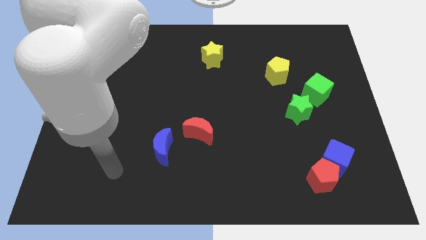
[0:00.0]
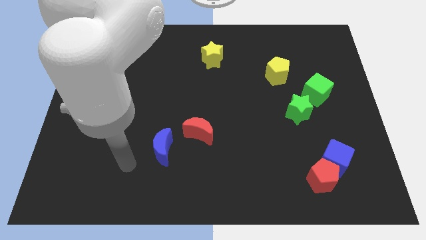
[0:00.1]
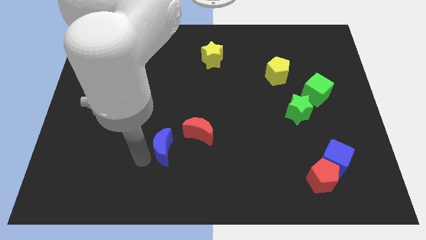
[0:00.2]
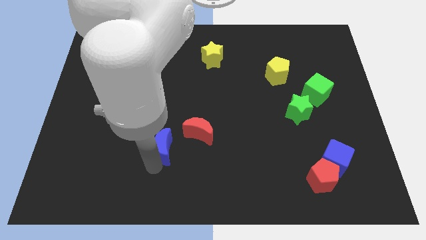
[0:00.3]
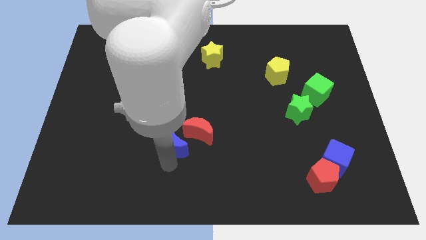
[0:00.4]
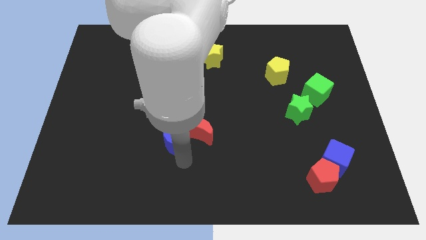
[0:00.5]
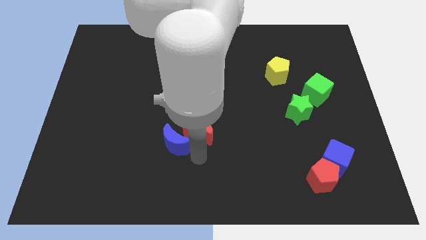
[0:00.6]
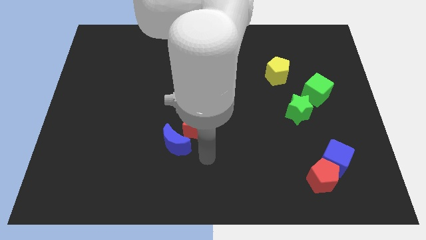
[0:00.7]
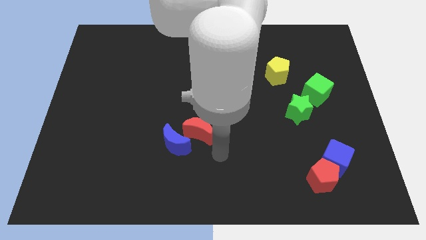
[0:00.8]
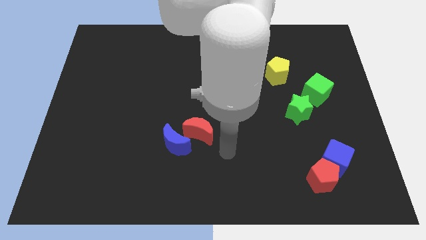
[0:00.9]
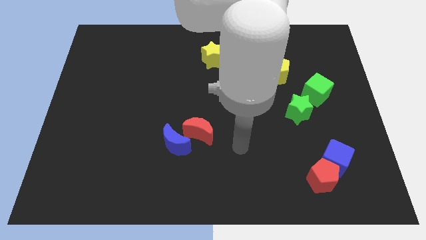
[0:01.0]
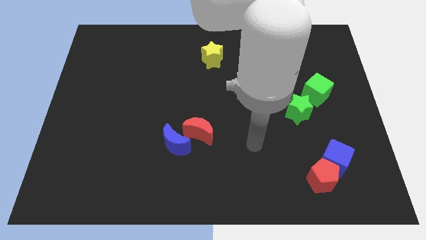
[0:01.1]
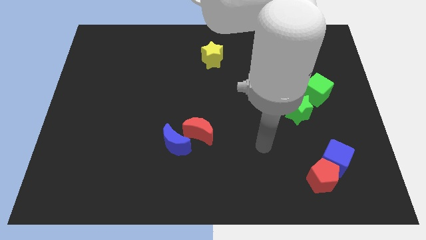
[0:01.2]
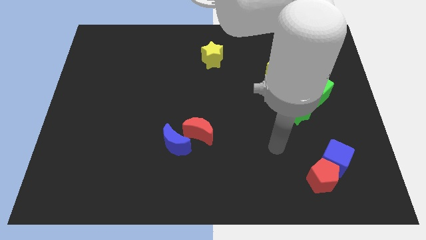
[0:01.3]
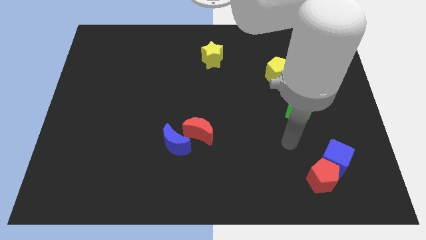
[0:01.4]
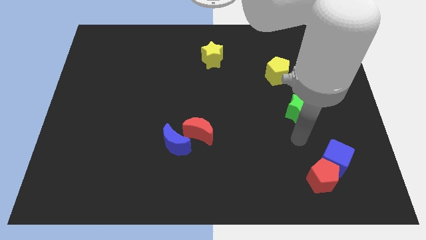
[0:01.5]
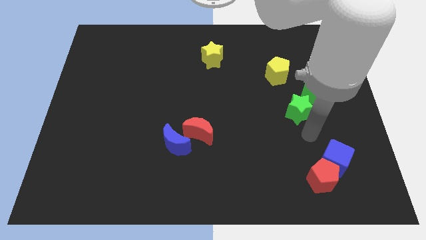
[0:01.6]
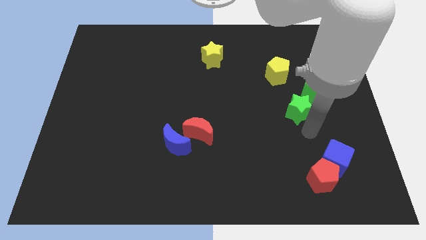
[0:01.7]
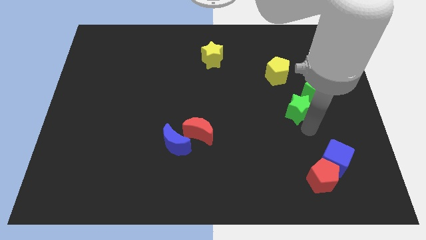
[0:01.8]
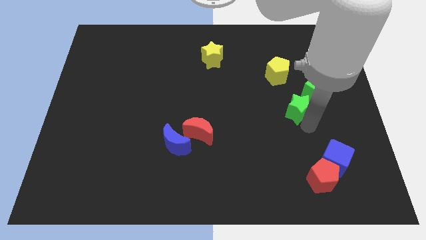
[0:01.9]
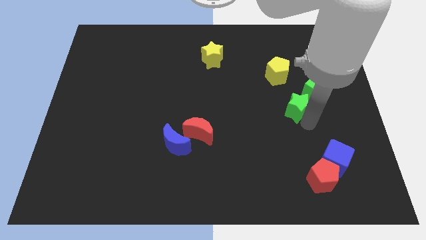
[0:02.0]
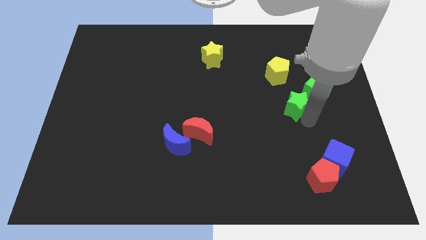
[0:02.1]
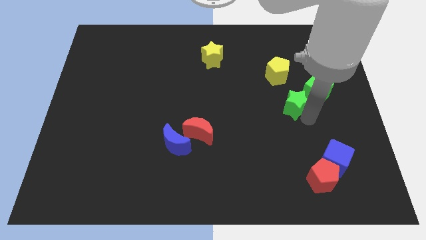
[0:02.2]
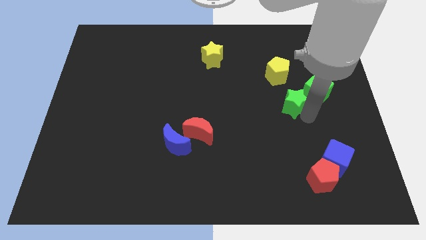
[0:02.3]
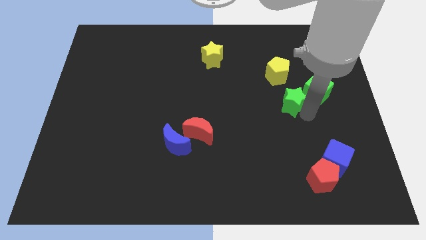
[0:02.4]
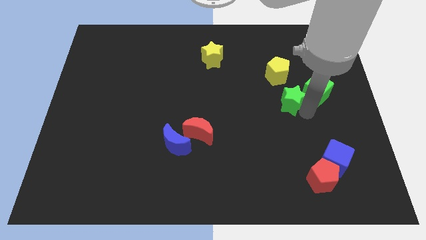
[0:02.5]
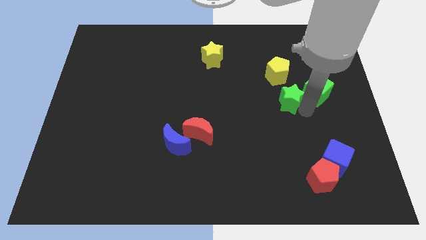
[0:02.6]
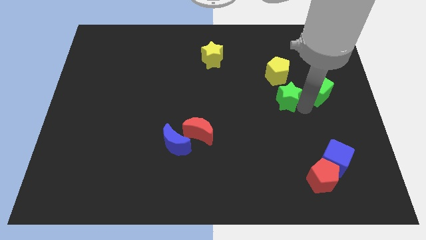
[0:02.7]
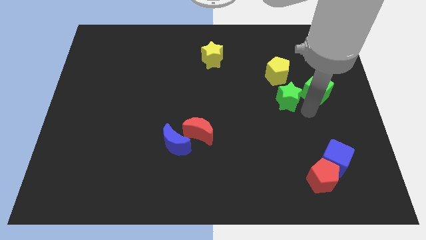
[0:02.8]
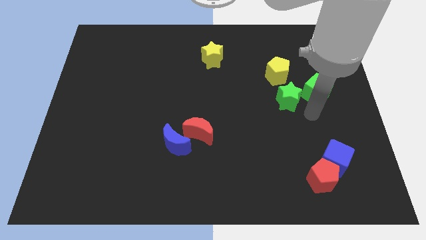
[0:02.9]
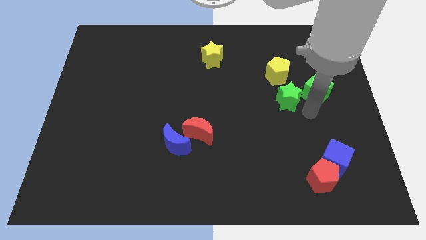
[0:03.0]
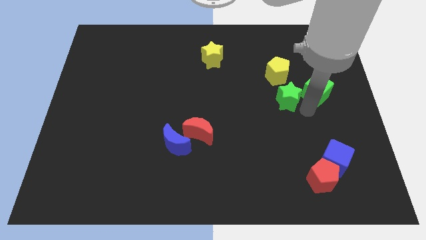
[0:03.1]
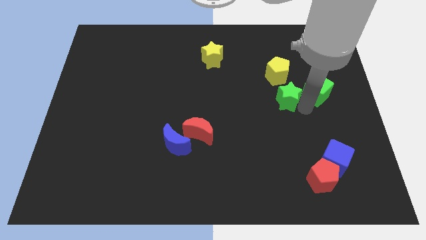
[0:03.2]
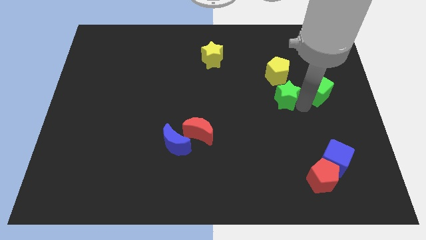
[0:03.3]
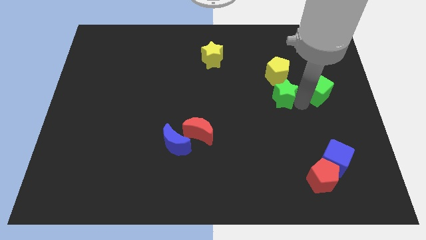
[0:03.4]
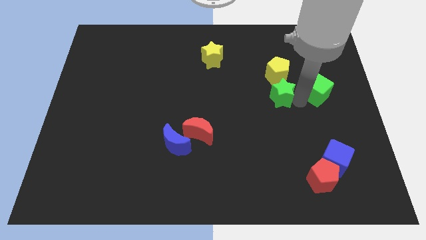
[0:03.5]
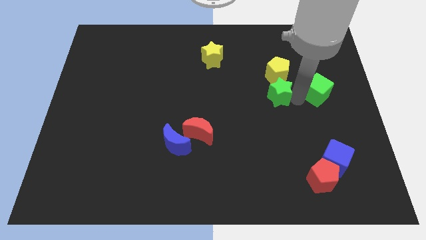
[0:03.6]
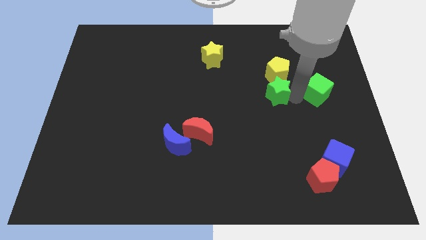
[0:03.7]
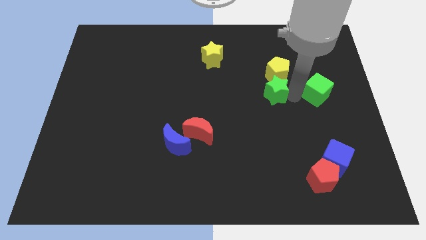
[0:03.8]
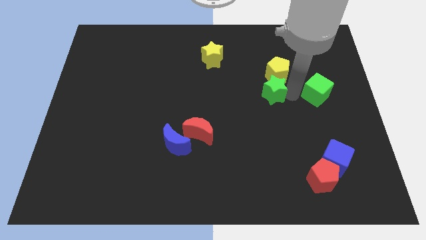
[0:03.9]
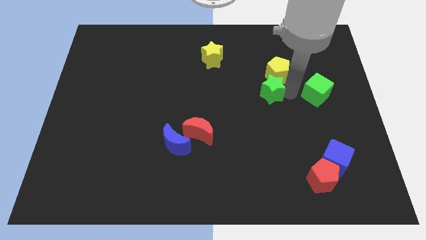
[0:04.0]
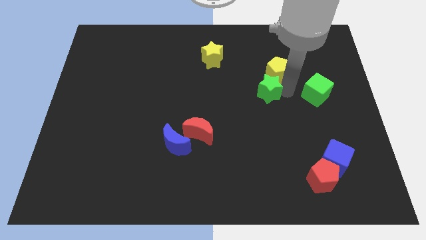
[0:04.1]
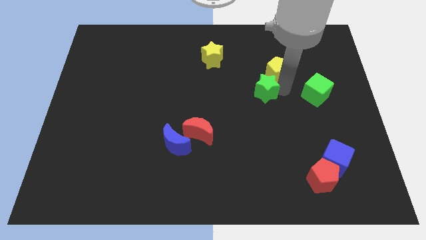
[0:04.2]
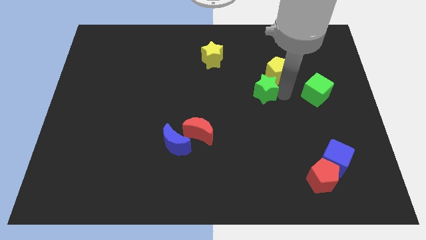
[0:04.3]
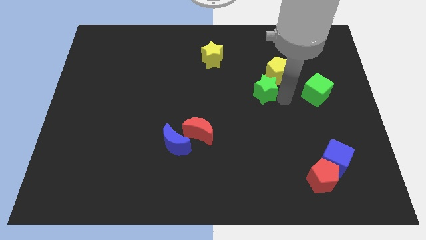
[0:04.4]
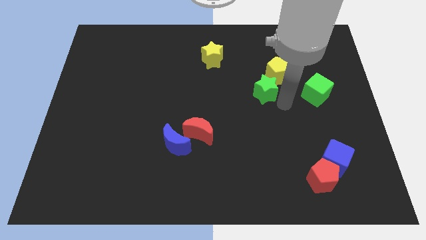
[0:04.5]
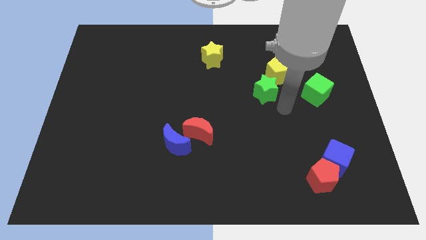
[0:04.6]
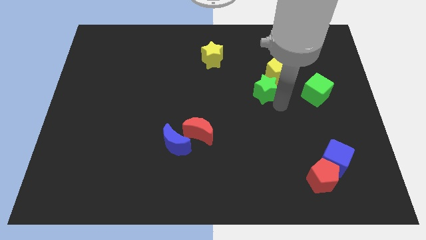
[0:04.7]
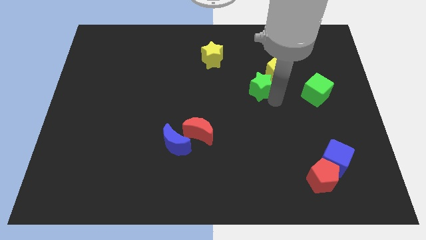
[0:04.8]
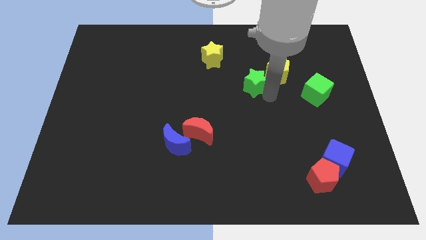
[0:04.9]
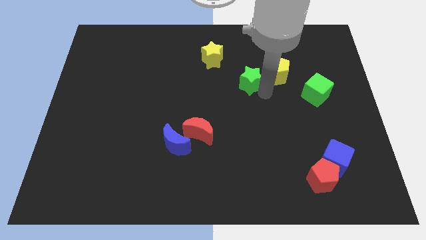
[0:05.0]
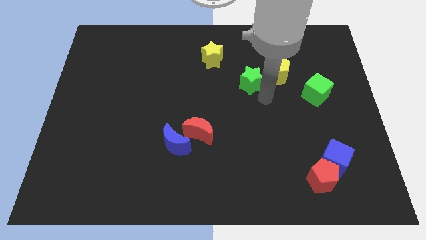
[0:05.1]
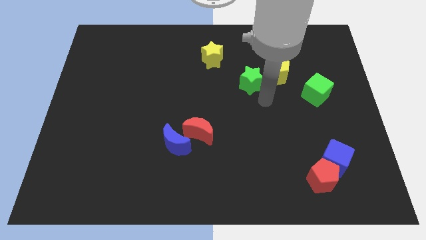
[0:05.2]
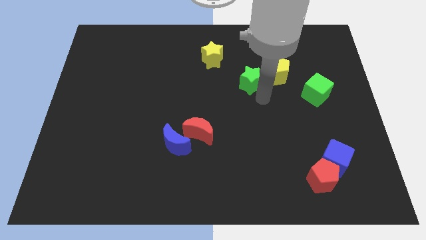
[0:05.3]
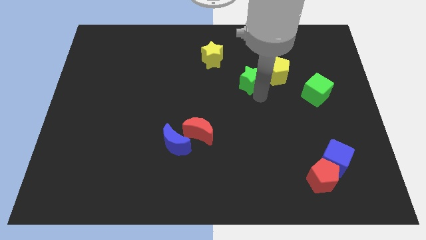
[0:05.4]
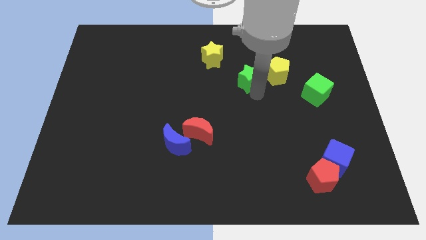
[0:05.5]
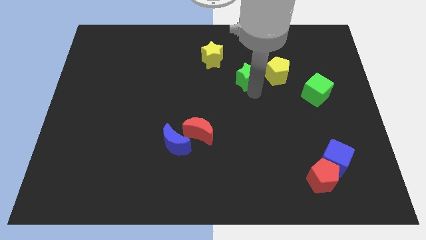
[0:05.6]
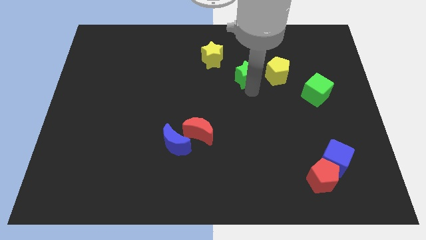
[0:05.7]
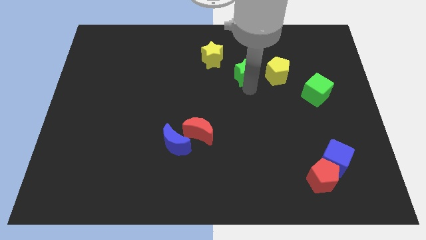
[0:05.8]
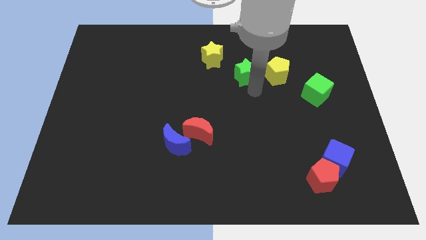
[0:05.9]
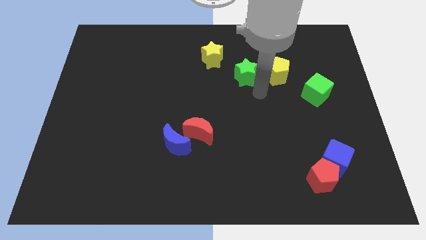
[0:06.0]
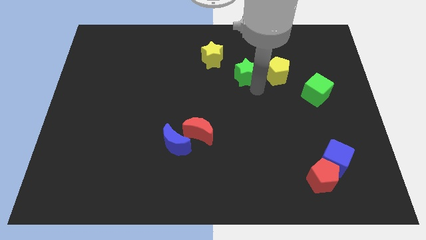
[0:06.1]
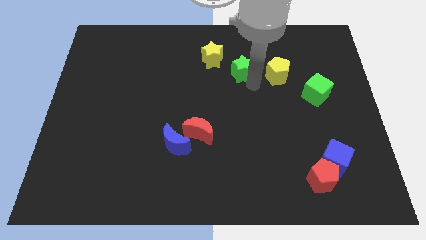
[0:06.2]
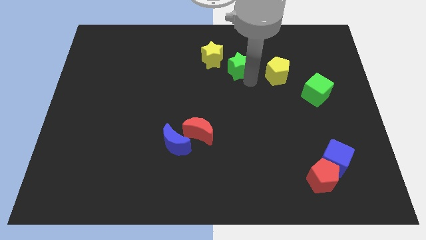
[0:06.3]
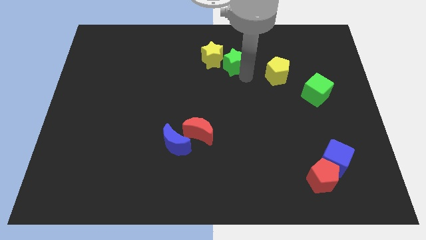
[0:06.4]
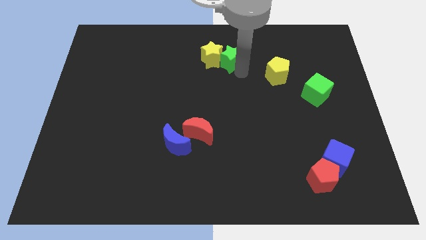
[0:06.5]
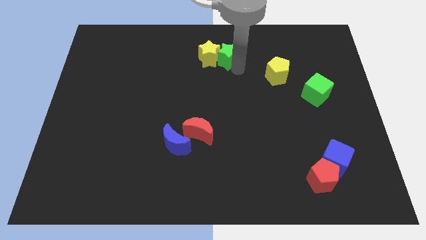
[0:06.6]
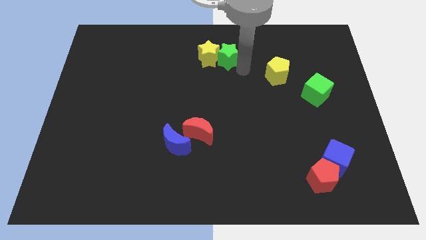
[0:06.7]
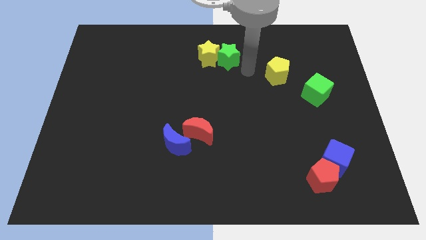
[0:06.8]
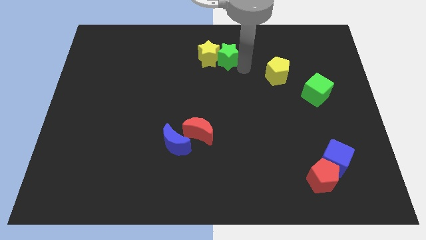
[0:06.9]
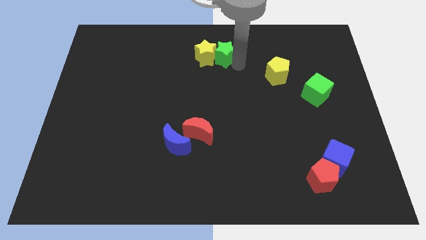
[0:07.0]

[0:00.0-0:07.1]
put the green star to the top side
